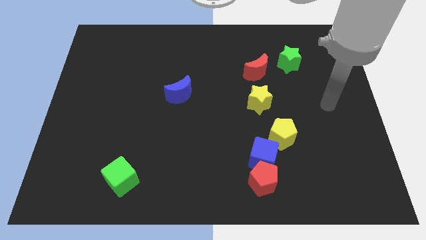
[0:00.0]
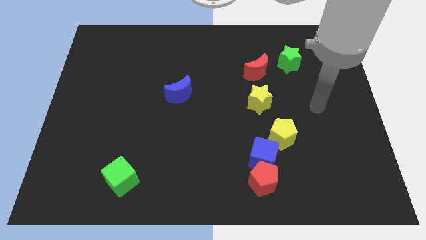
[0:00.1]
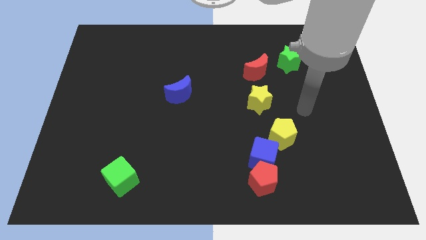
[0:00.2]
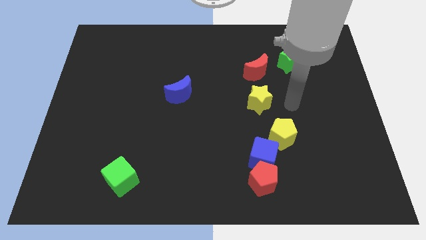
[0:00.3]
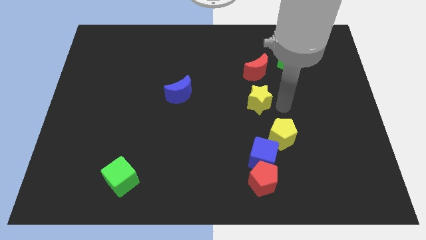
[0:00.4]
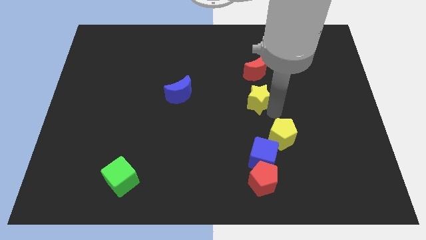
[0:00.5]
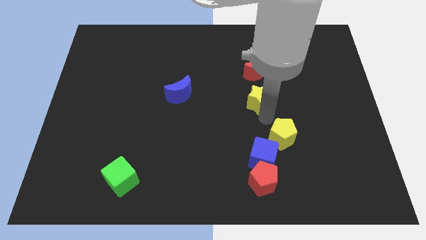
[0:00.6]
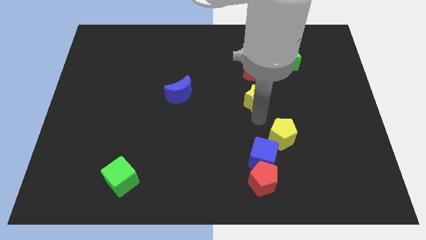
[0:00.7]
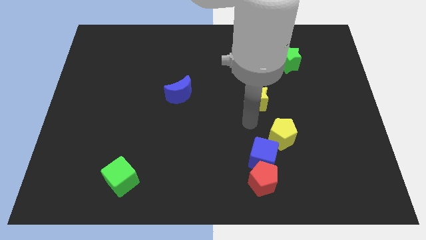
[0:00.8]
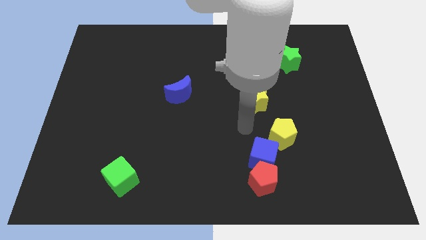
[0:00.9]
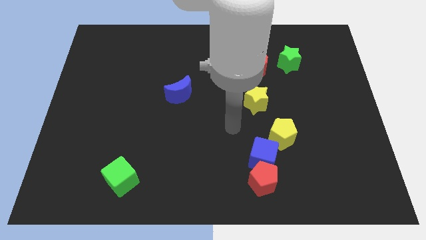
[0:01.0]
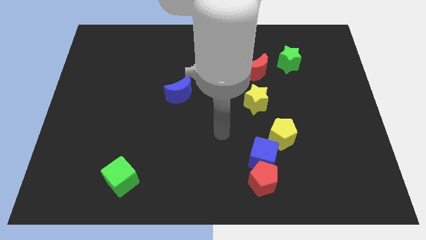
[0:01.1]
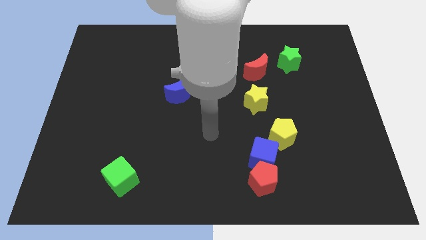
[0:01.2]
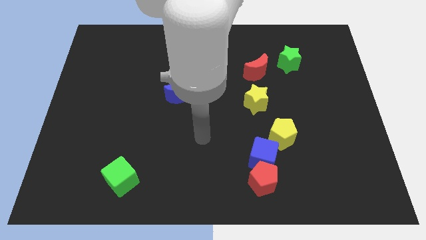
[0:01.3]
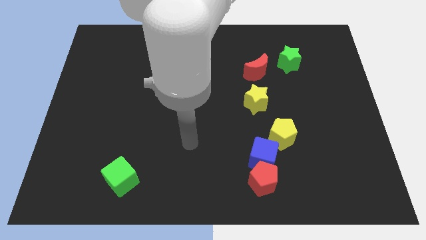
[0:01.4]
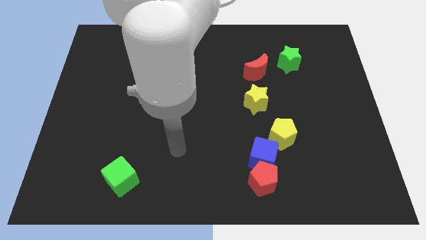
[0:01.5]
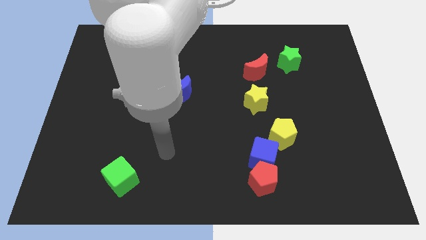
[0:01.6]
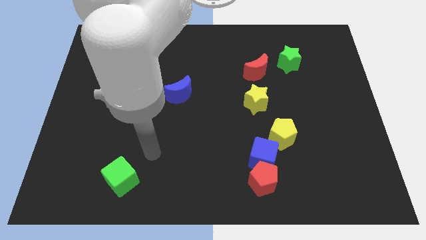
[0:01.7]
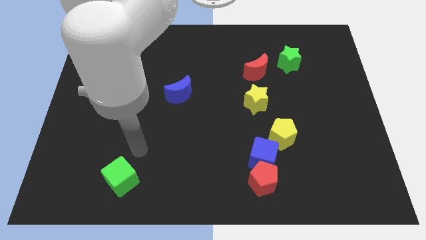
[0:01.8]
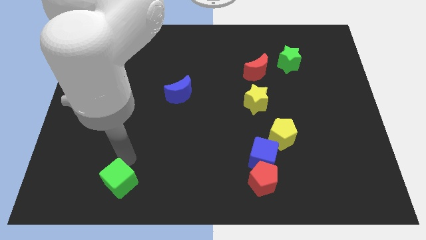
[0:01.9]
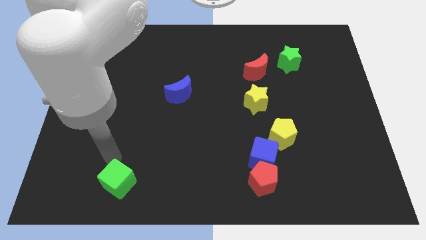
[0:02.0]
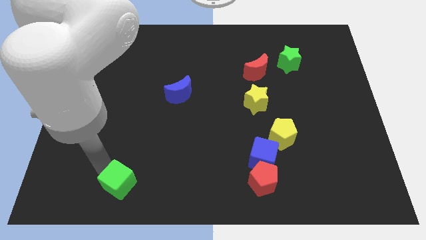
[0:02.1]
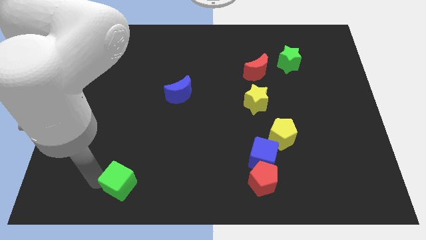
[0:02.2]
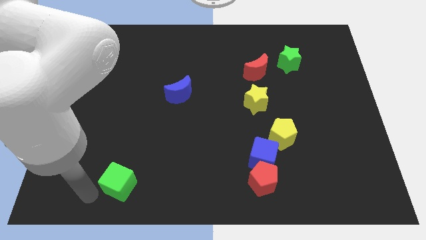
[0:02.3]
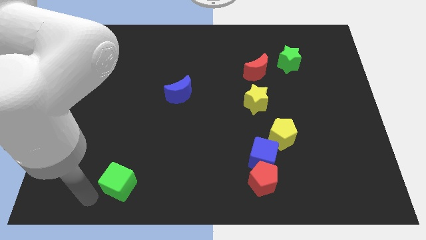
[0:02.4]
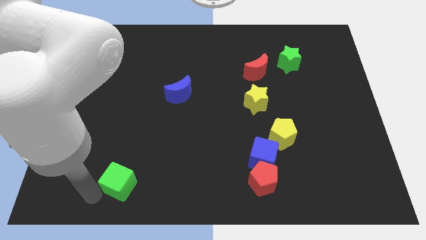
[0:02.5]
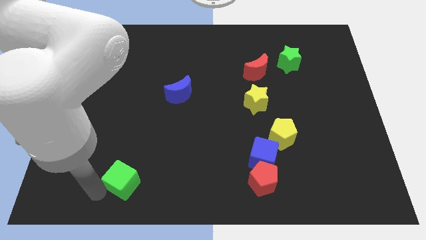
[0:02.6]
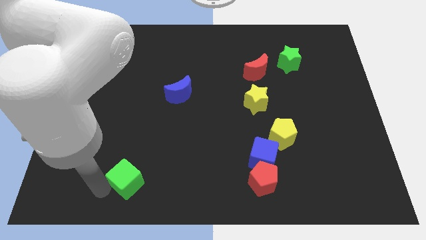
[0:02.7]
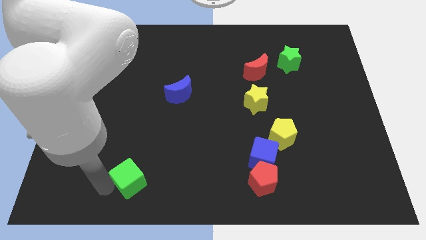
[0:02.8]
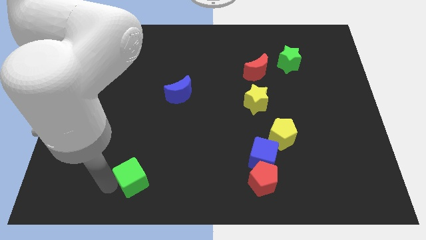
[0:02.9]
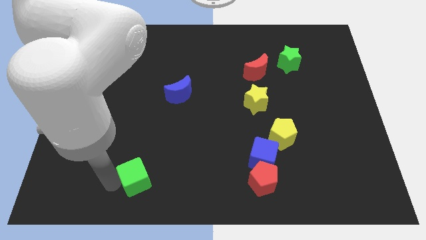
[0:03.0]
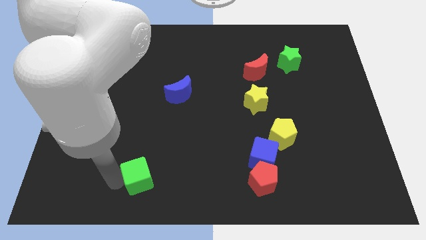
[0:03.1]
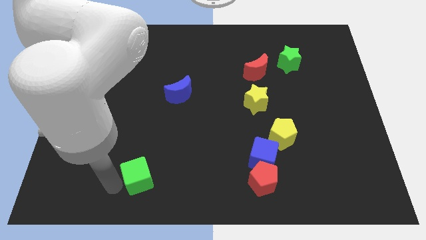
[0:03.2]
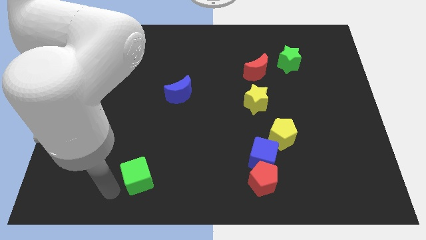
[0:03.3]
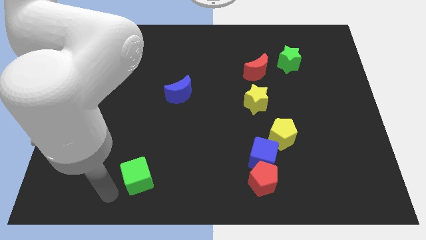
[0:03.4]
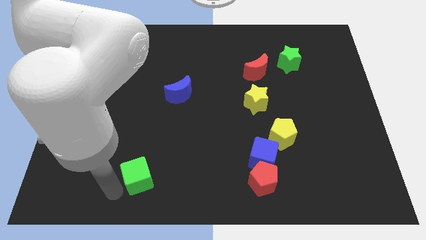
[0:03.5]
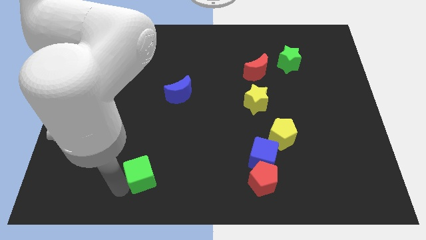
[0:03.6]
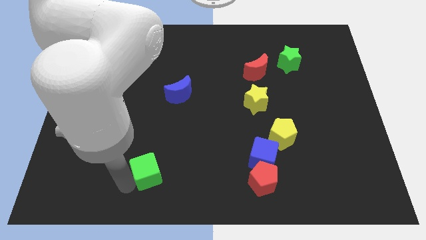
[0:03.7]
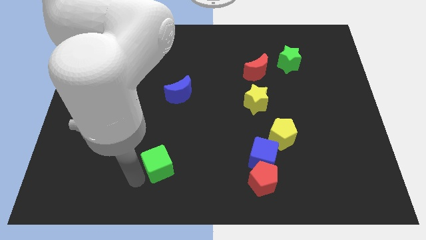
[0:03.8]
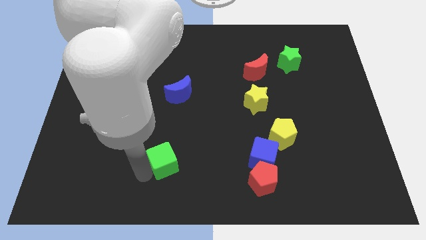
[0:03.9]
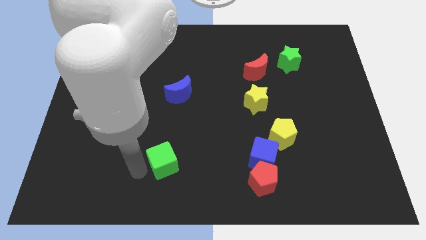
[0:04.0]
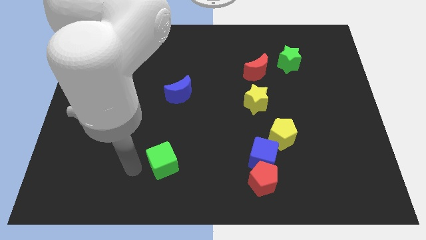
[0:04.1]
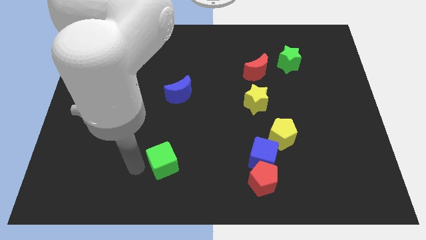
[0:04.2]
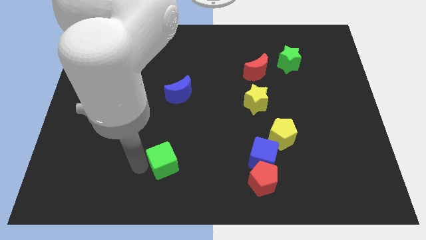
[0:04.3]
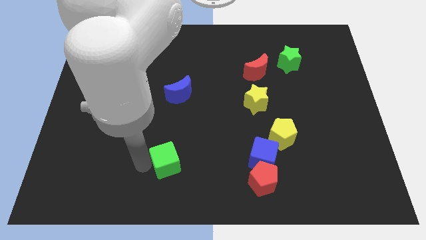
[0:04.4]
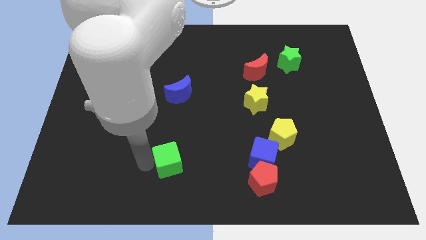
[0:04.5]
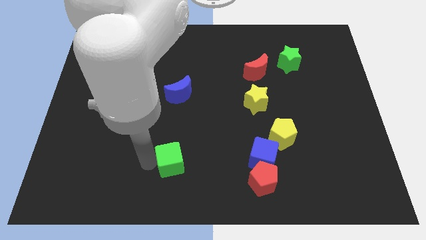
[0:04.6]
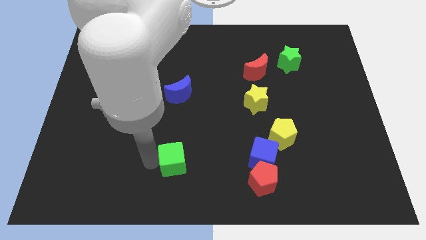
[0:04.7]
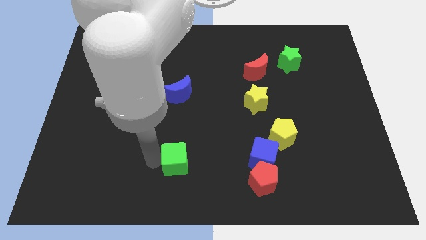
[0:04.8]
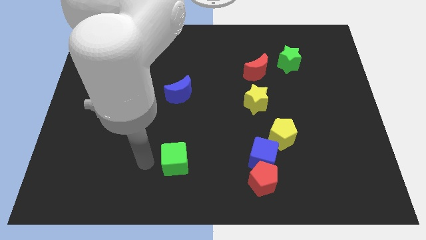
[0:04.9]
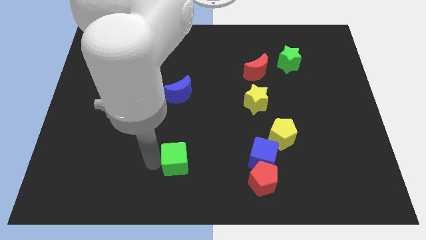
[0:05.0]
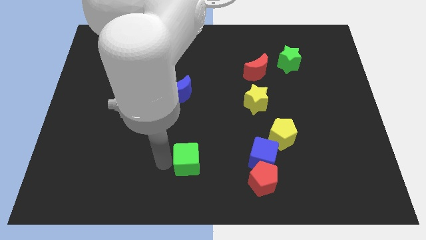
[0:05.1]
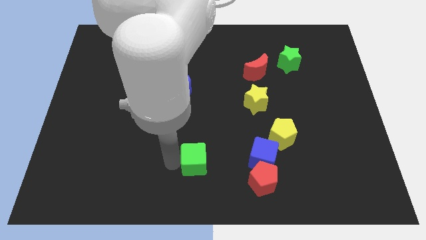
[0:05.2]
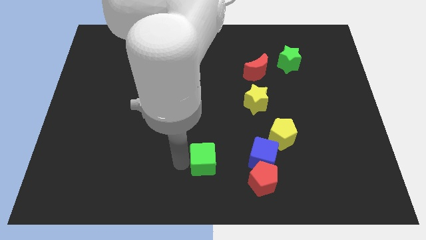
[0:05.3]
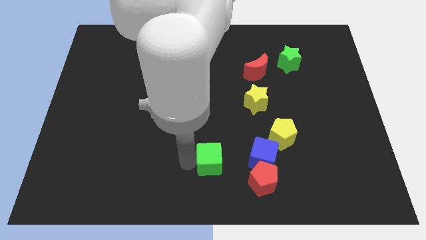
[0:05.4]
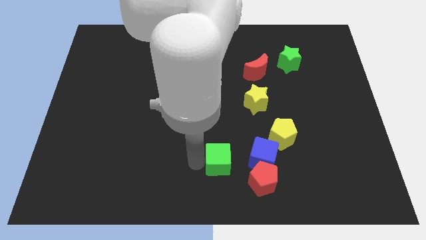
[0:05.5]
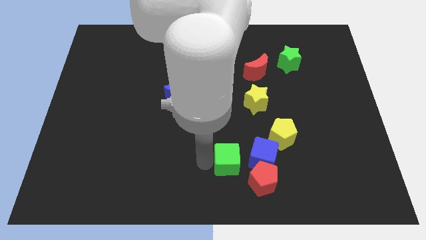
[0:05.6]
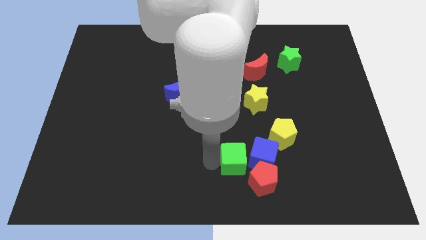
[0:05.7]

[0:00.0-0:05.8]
move the green cube next to the blue cube

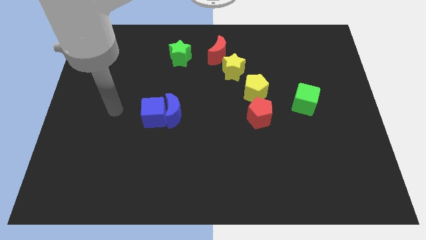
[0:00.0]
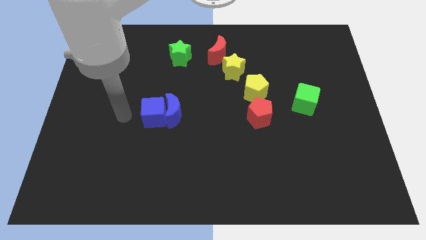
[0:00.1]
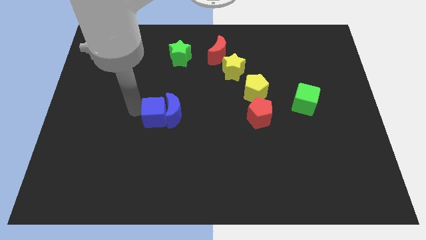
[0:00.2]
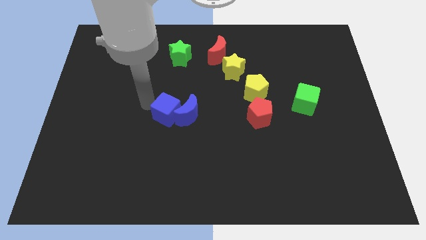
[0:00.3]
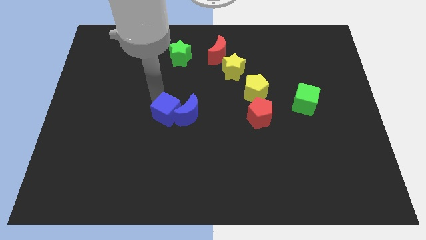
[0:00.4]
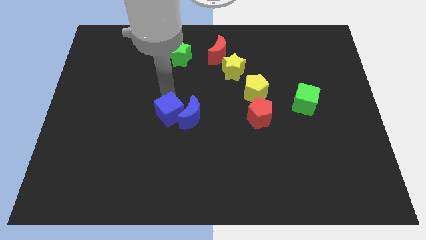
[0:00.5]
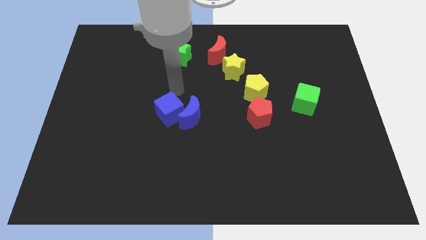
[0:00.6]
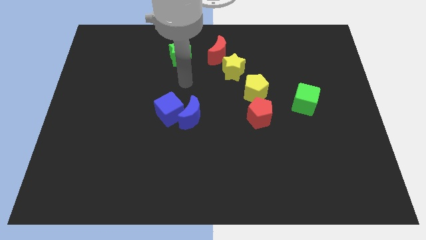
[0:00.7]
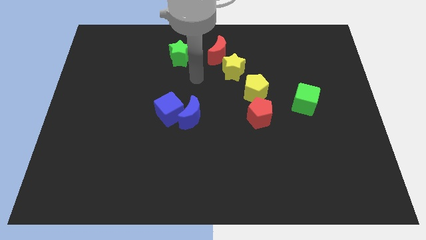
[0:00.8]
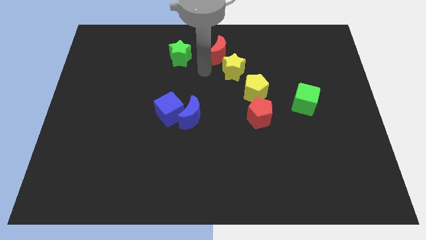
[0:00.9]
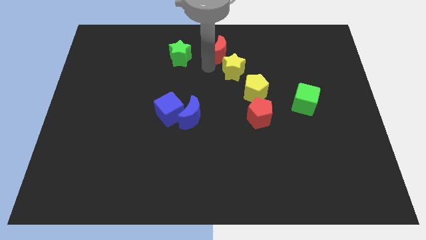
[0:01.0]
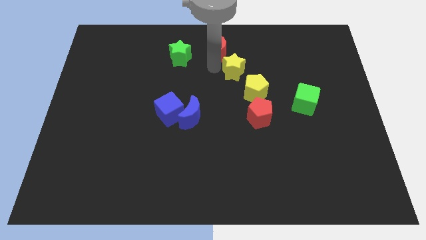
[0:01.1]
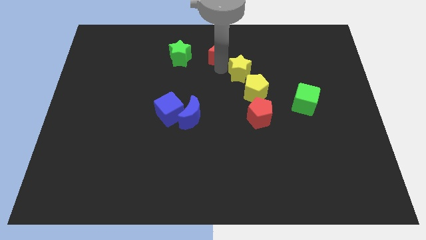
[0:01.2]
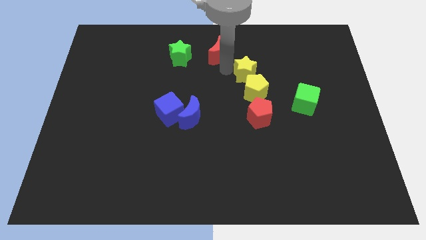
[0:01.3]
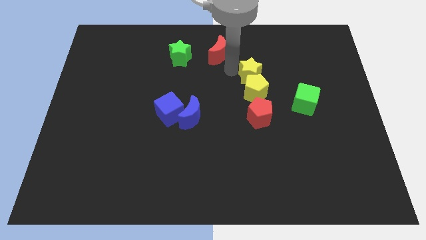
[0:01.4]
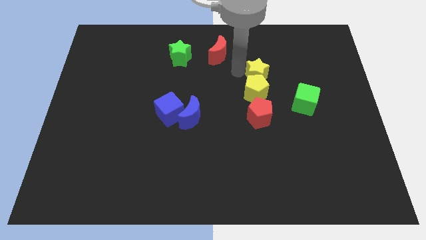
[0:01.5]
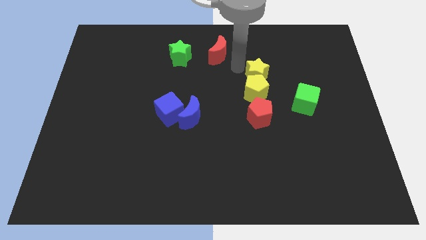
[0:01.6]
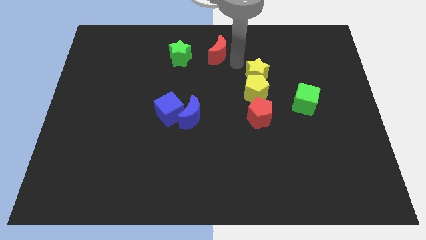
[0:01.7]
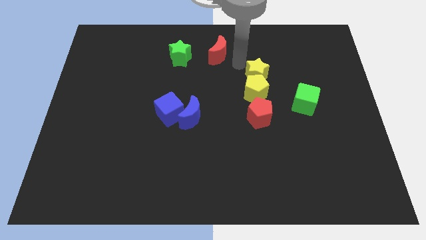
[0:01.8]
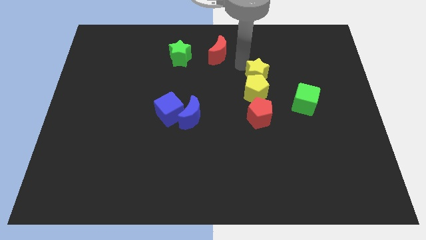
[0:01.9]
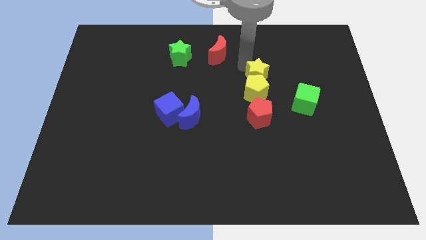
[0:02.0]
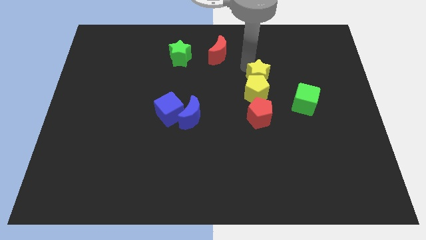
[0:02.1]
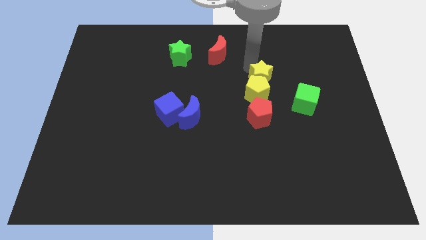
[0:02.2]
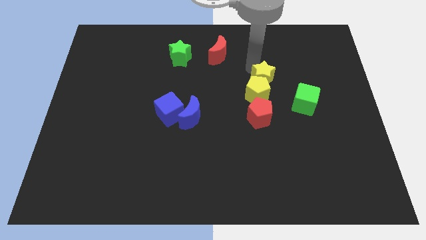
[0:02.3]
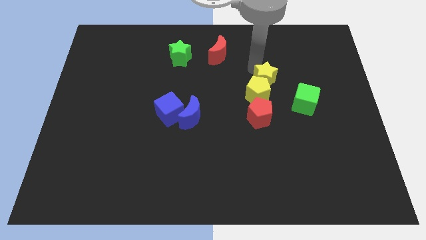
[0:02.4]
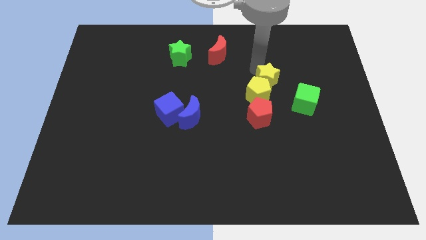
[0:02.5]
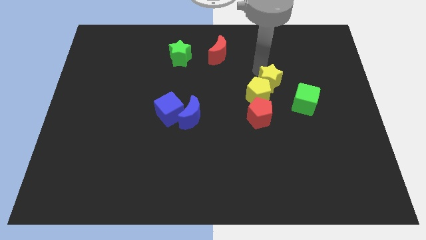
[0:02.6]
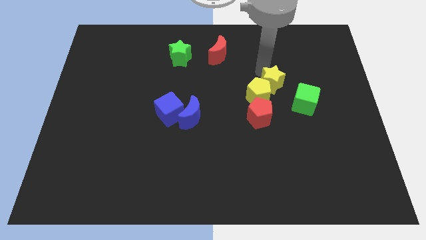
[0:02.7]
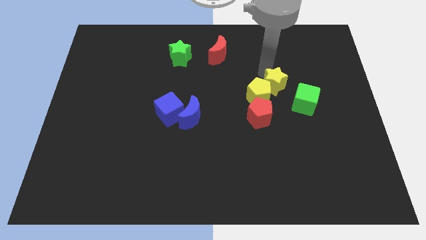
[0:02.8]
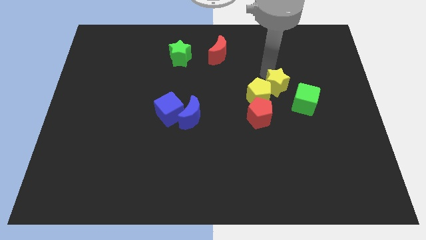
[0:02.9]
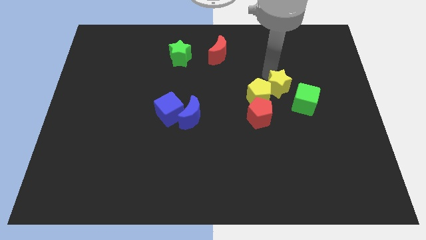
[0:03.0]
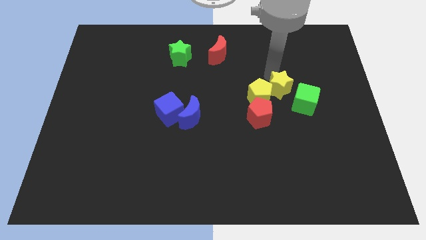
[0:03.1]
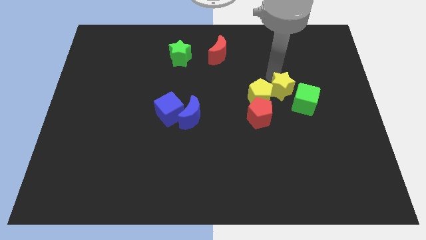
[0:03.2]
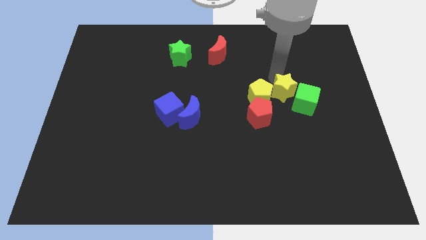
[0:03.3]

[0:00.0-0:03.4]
move the yellow star towards the green cube
